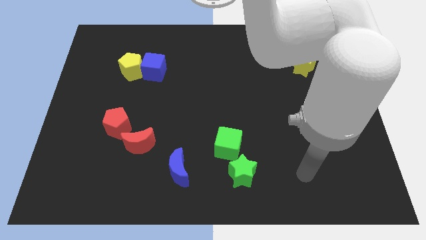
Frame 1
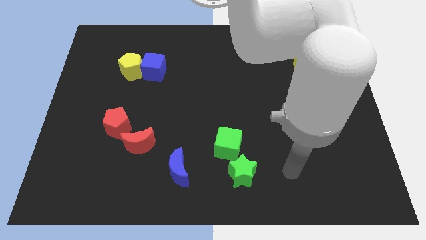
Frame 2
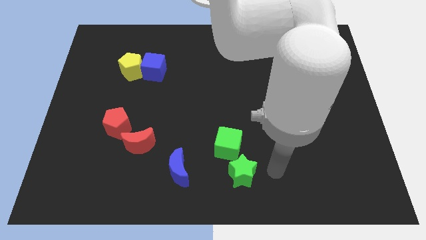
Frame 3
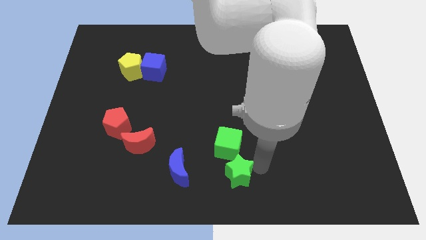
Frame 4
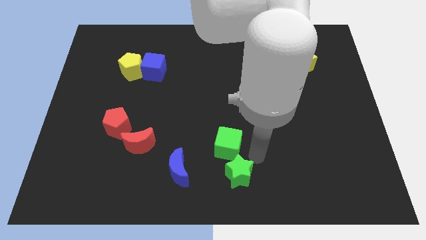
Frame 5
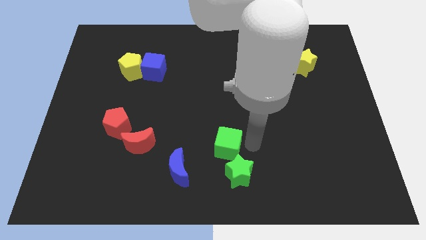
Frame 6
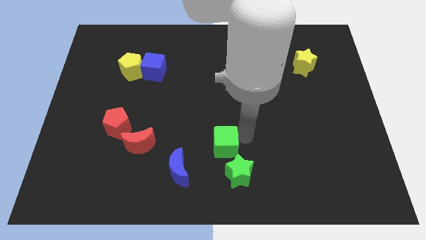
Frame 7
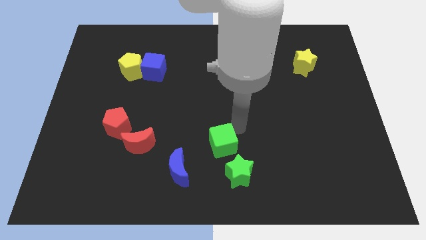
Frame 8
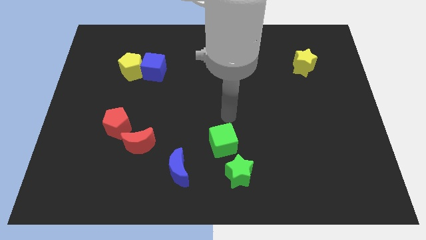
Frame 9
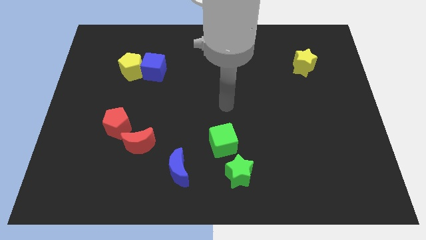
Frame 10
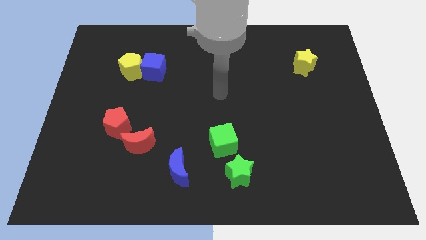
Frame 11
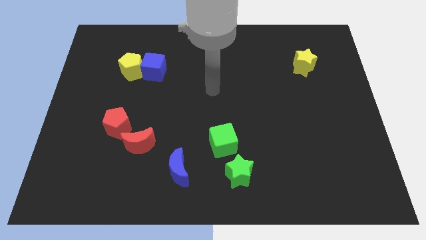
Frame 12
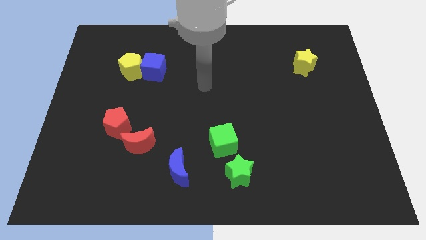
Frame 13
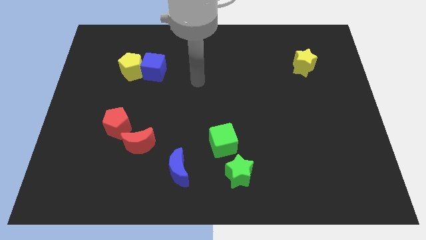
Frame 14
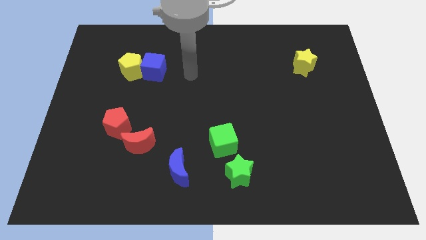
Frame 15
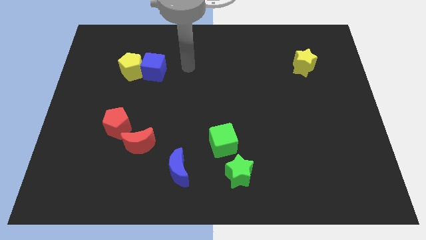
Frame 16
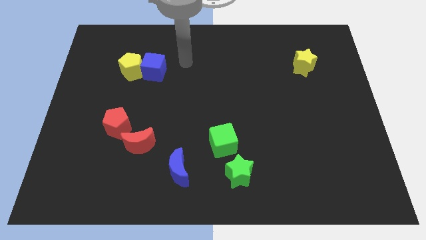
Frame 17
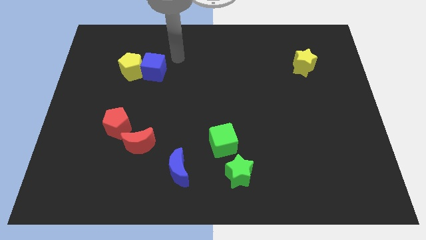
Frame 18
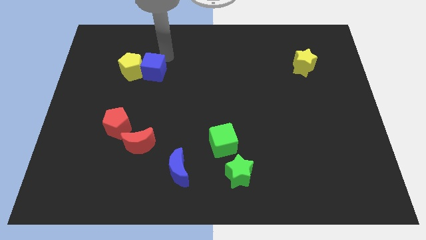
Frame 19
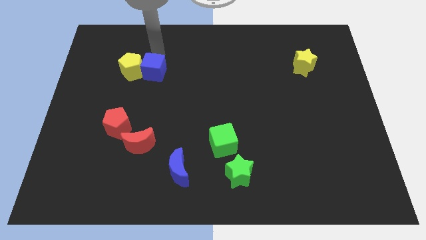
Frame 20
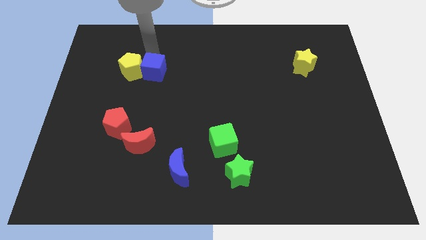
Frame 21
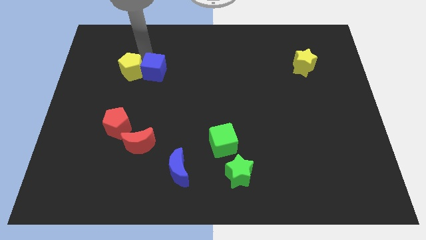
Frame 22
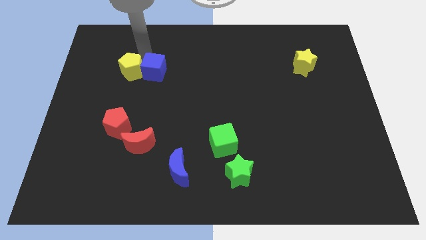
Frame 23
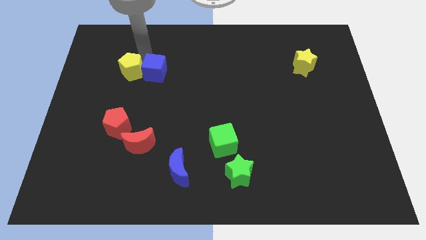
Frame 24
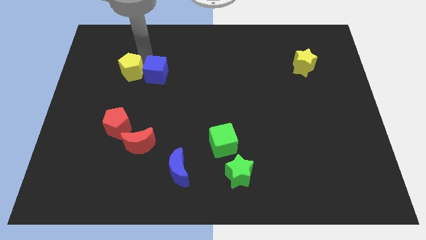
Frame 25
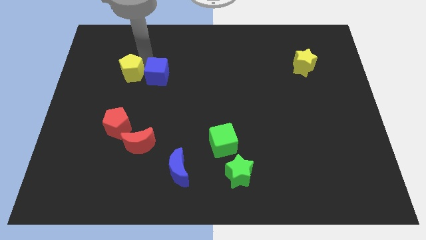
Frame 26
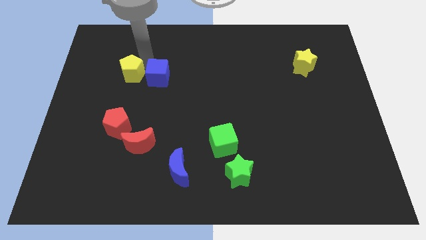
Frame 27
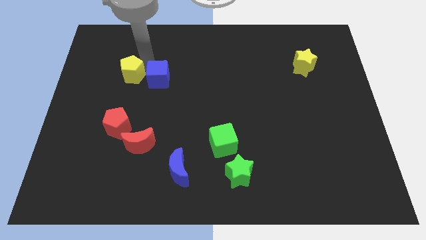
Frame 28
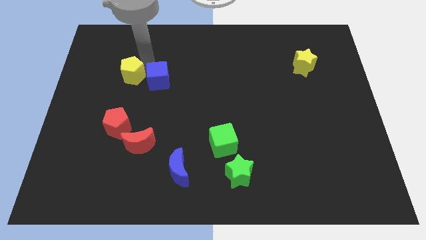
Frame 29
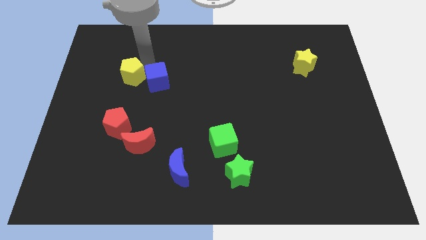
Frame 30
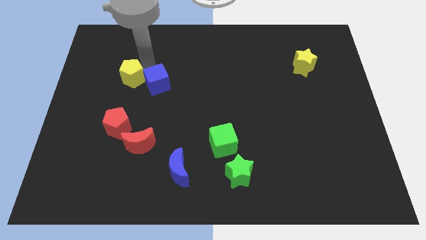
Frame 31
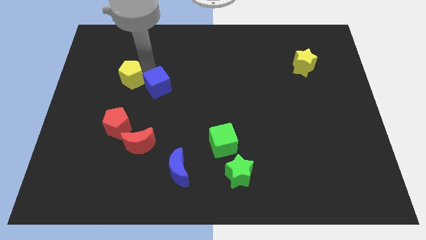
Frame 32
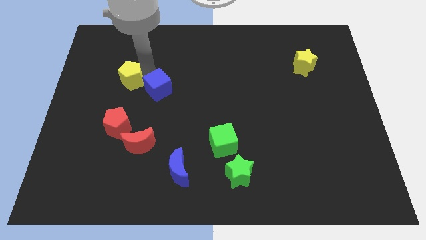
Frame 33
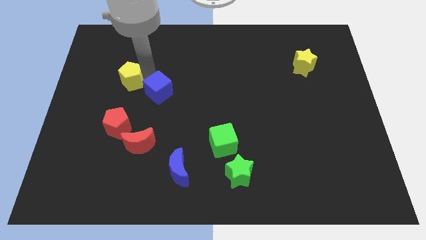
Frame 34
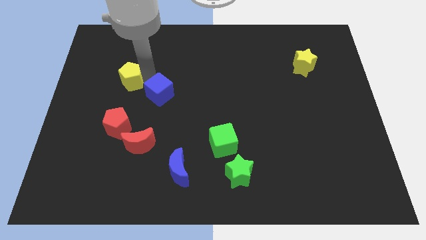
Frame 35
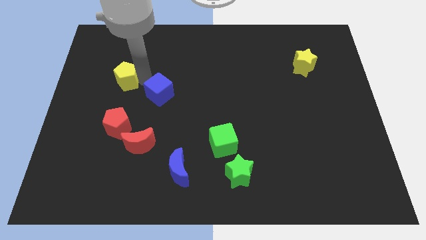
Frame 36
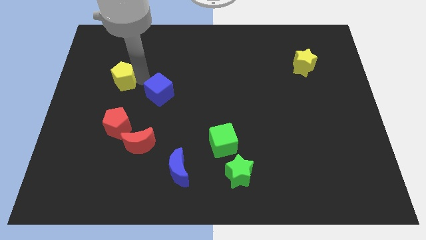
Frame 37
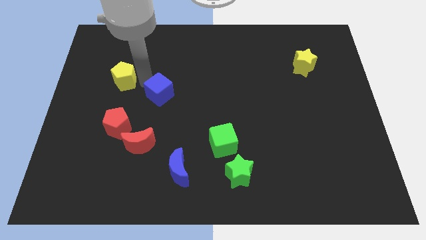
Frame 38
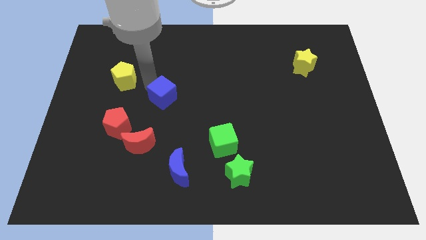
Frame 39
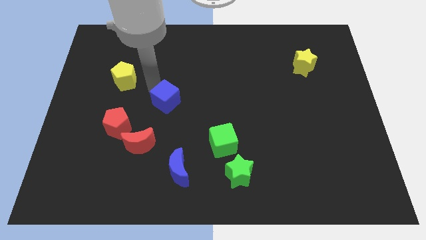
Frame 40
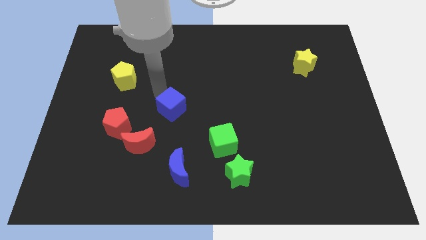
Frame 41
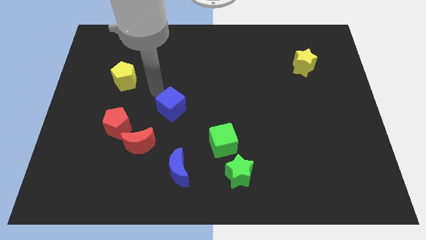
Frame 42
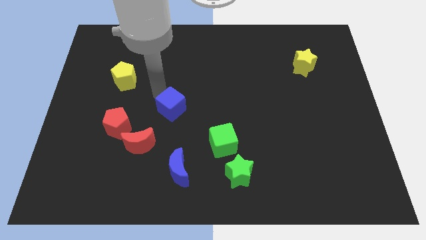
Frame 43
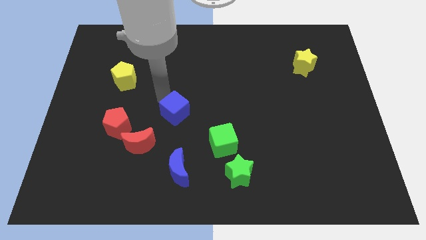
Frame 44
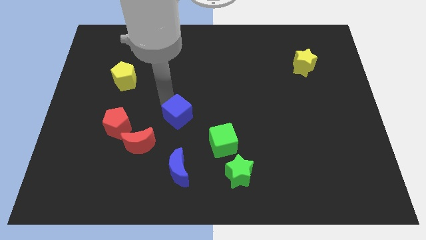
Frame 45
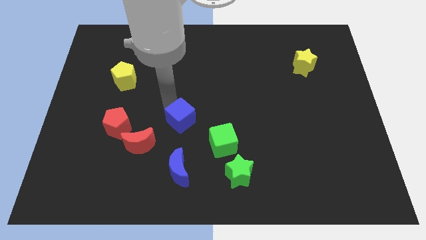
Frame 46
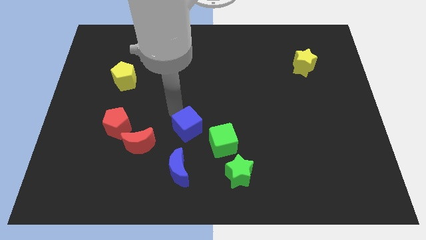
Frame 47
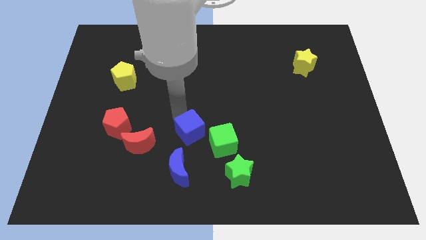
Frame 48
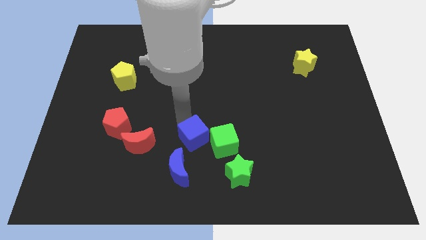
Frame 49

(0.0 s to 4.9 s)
slide the blue cube diagonally up and to the right of the blue moon

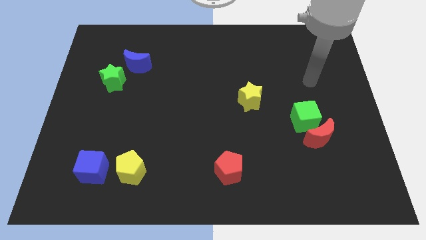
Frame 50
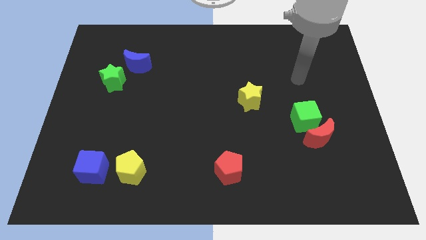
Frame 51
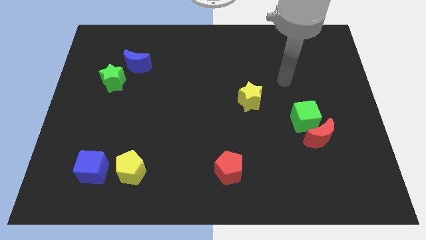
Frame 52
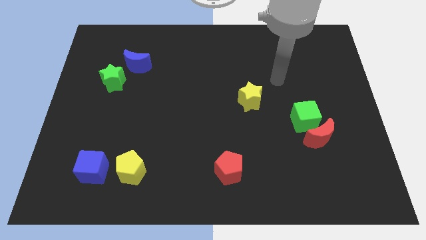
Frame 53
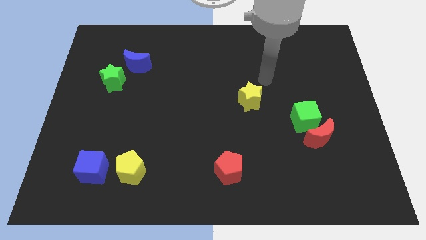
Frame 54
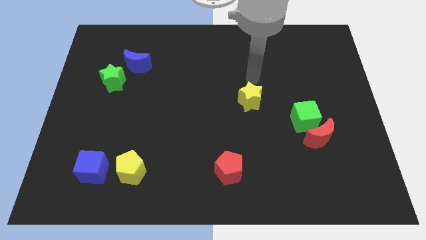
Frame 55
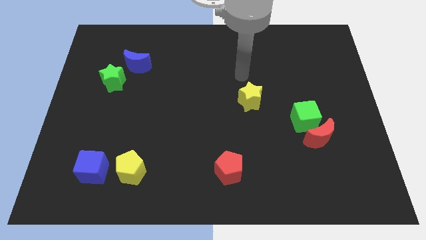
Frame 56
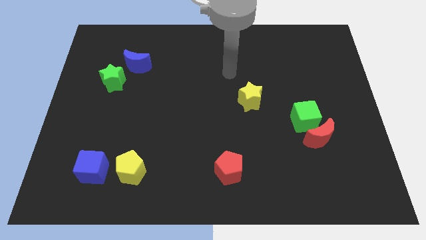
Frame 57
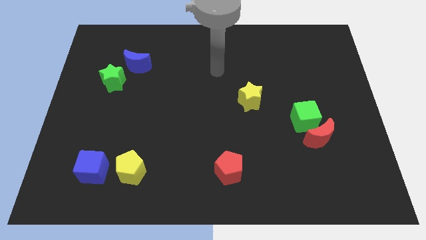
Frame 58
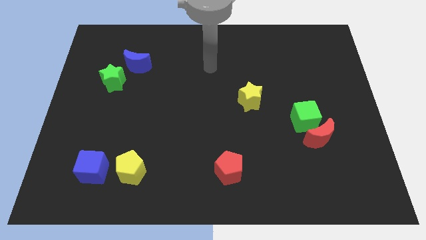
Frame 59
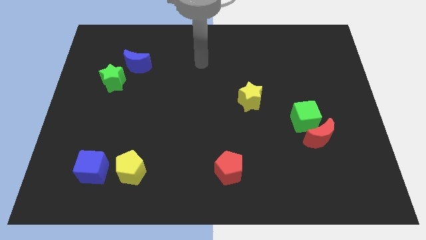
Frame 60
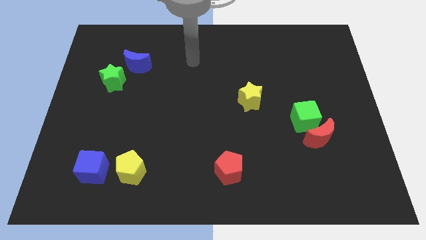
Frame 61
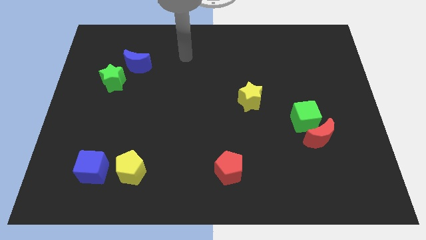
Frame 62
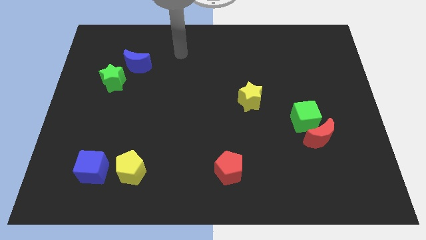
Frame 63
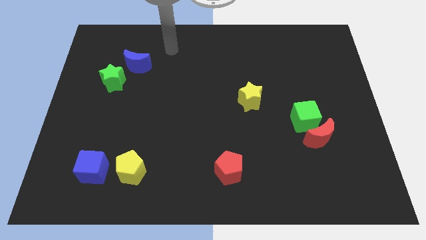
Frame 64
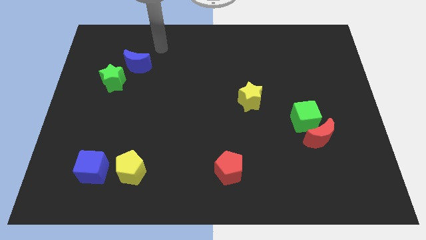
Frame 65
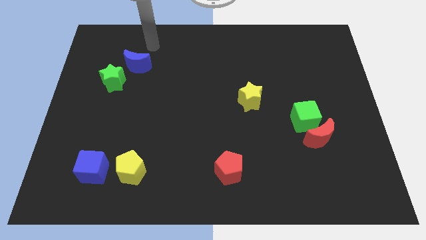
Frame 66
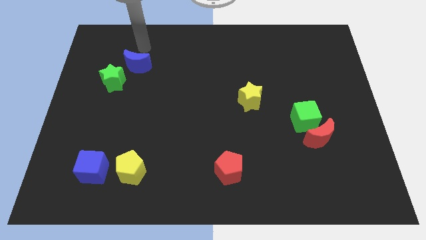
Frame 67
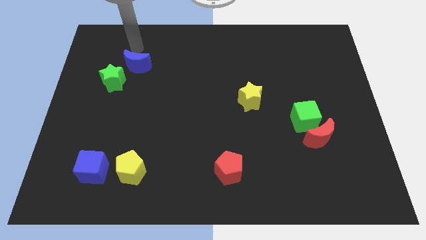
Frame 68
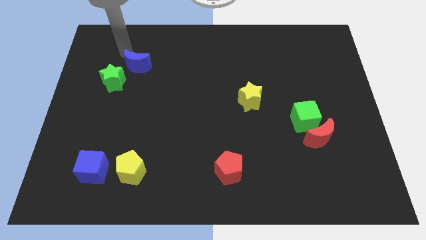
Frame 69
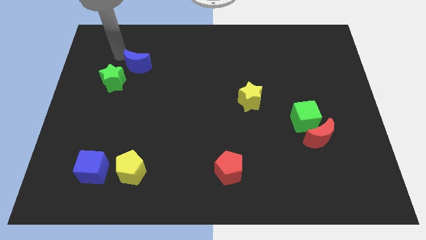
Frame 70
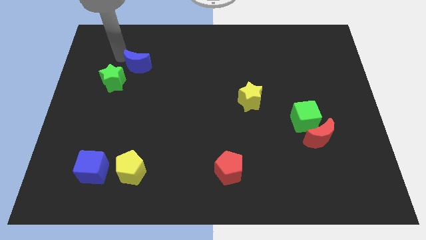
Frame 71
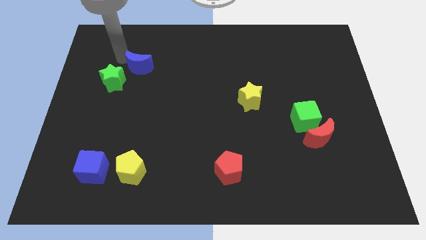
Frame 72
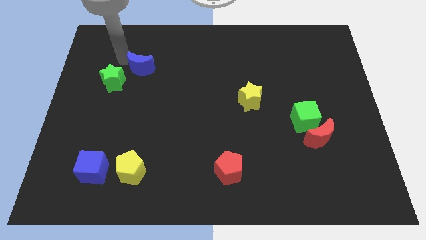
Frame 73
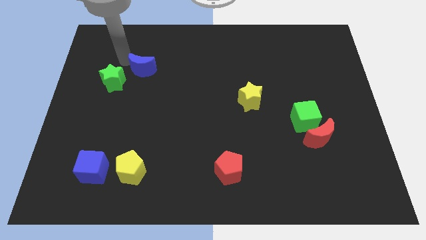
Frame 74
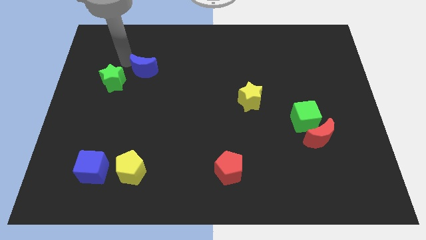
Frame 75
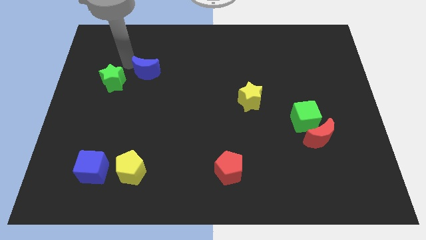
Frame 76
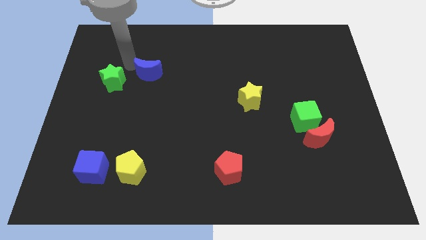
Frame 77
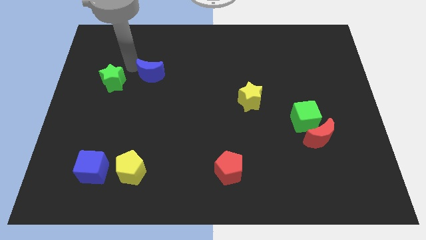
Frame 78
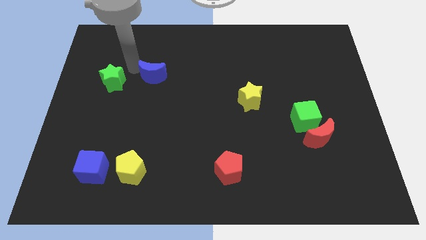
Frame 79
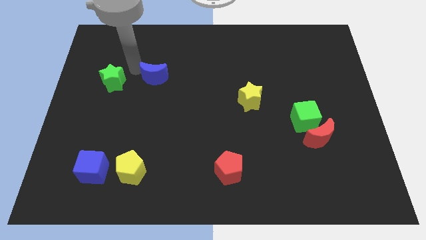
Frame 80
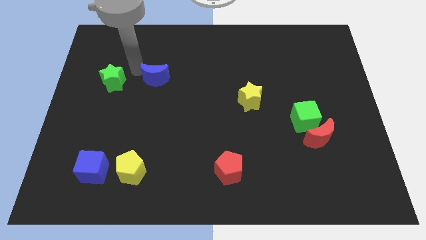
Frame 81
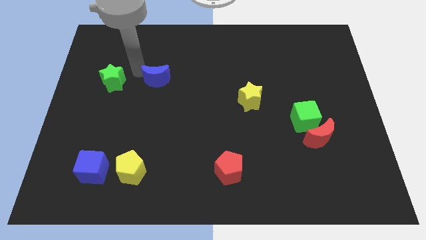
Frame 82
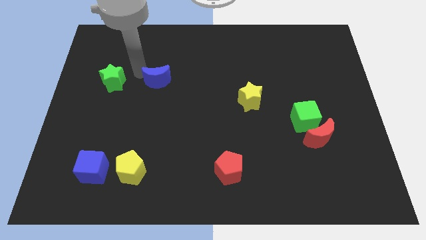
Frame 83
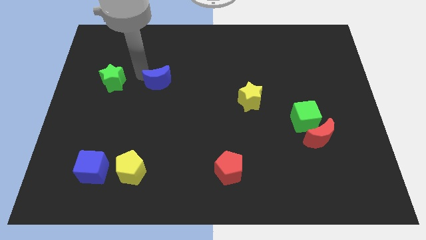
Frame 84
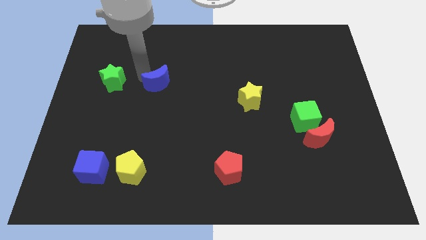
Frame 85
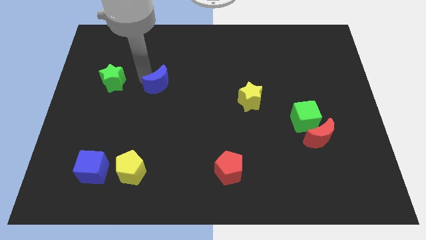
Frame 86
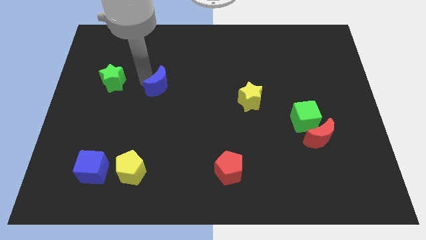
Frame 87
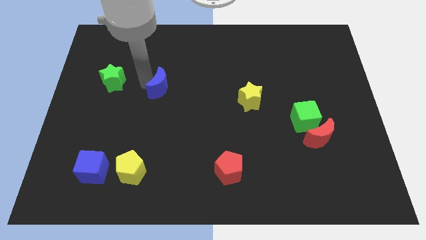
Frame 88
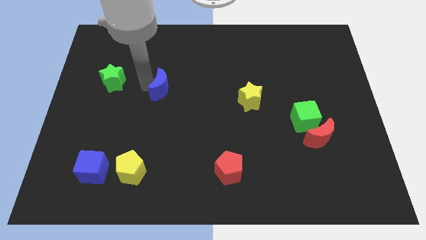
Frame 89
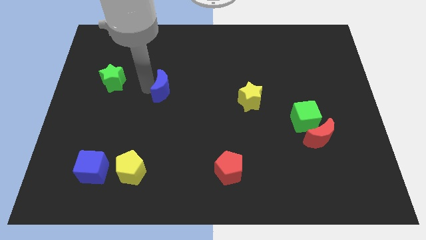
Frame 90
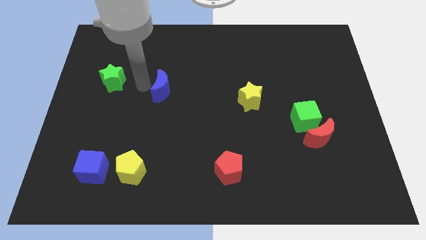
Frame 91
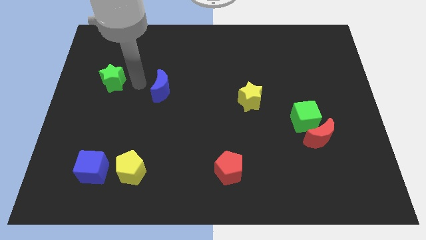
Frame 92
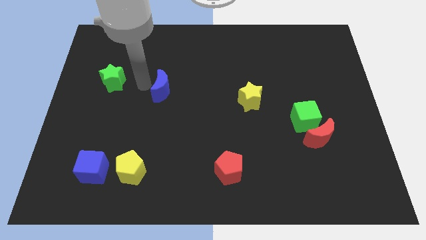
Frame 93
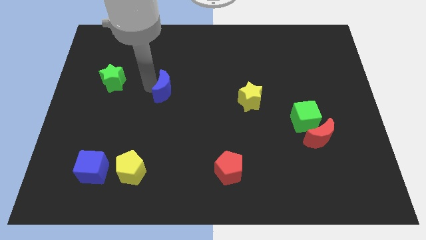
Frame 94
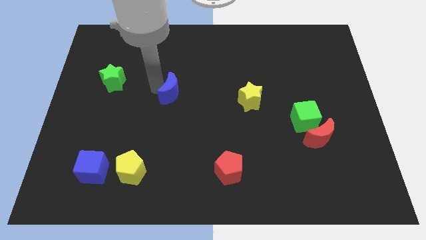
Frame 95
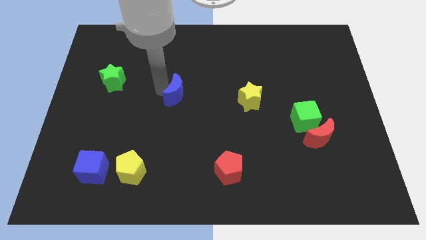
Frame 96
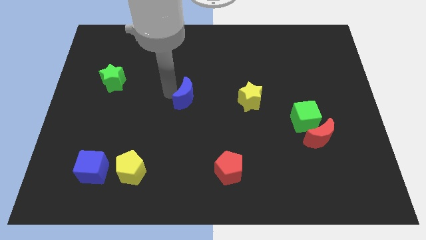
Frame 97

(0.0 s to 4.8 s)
put the blue moon just left of the yellow star
